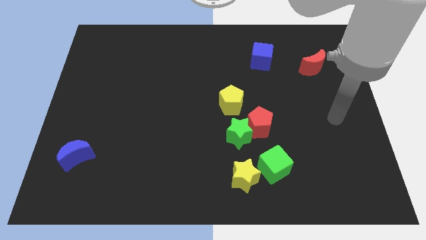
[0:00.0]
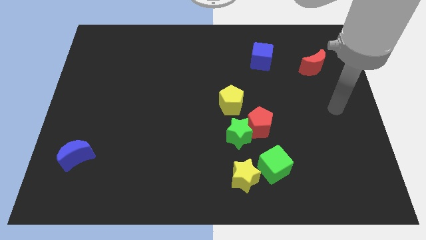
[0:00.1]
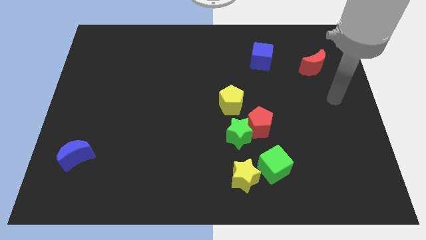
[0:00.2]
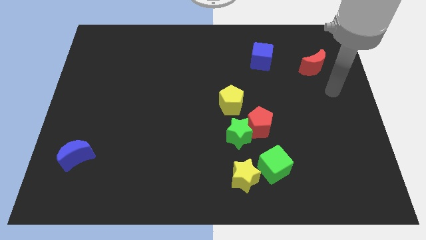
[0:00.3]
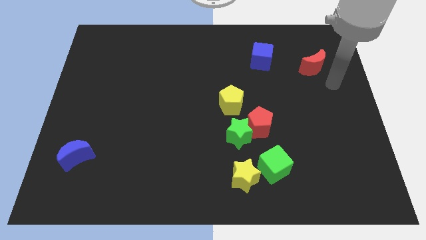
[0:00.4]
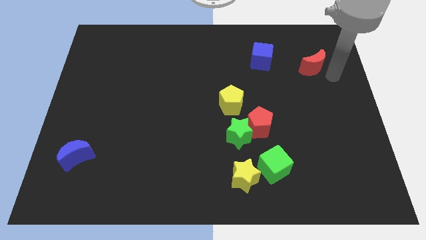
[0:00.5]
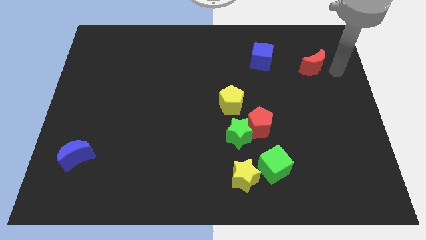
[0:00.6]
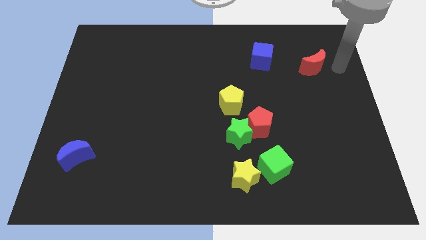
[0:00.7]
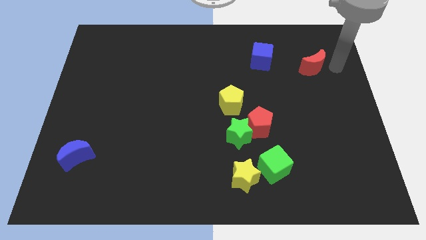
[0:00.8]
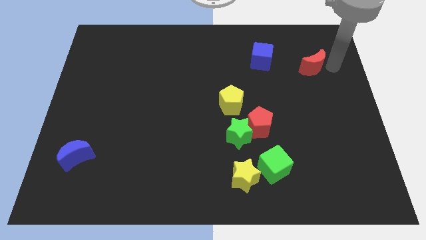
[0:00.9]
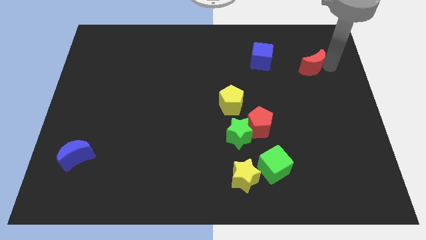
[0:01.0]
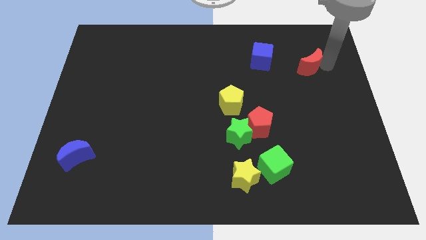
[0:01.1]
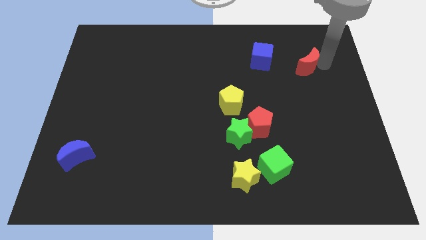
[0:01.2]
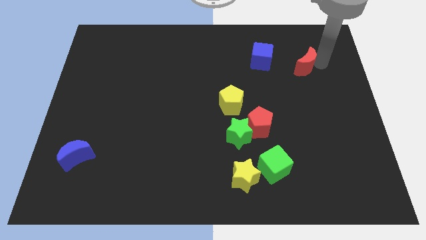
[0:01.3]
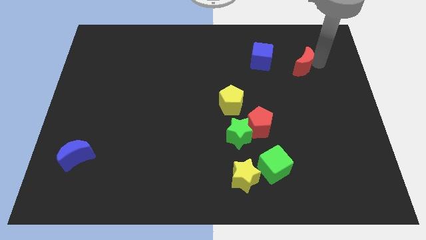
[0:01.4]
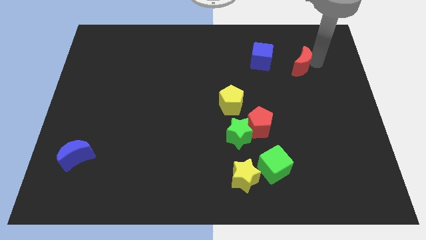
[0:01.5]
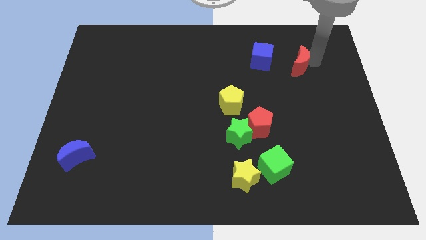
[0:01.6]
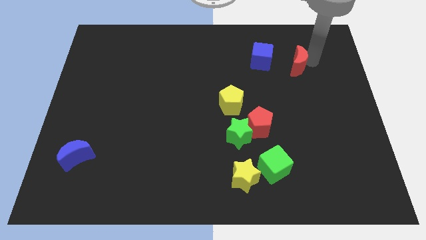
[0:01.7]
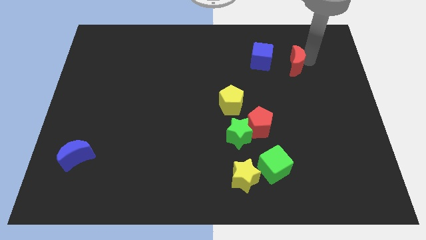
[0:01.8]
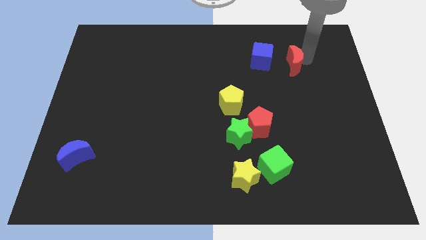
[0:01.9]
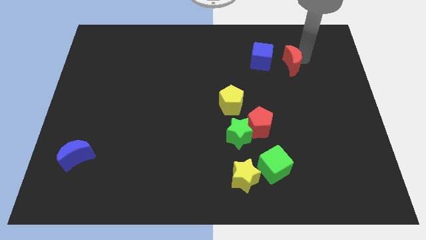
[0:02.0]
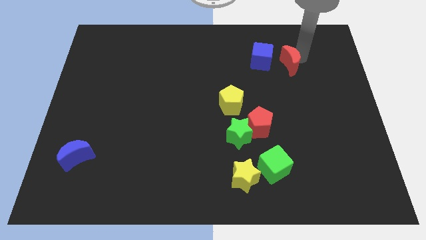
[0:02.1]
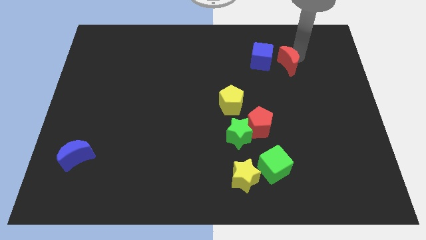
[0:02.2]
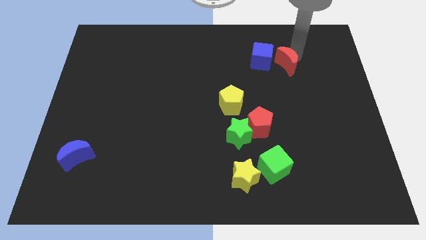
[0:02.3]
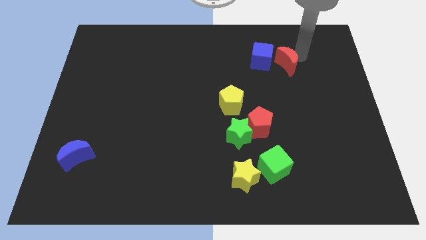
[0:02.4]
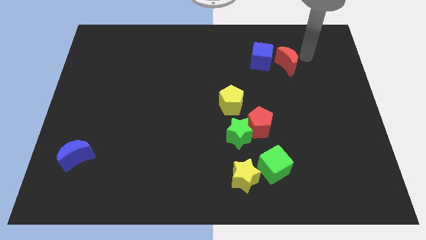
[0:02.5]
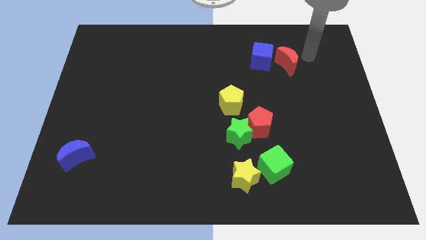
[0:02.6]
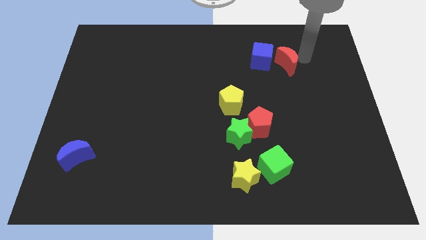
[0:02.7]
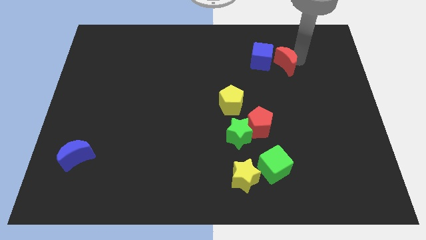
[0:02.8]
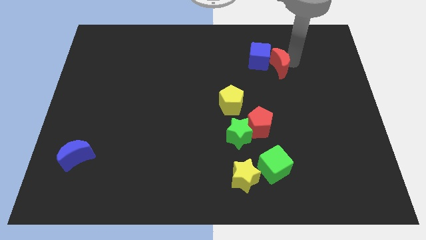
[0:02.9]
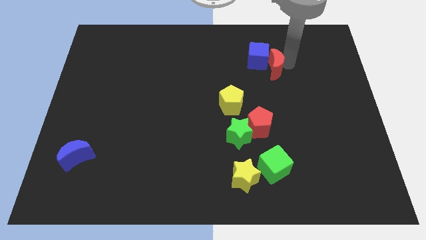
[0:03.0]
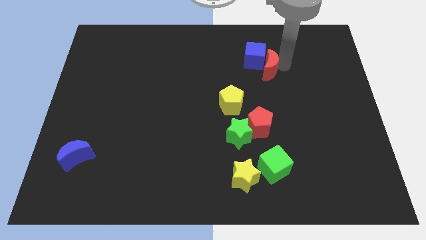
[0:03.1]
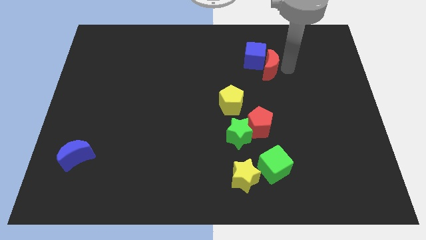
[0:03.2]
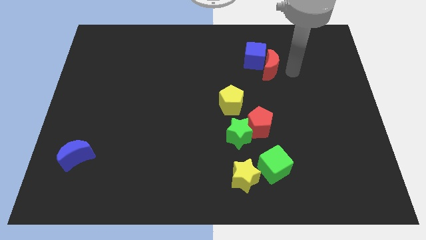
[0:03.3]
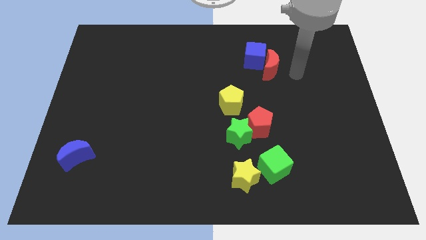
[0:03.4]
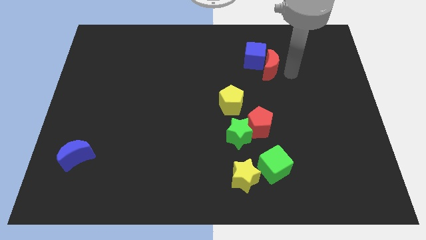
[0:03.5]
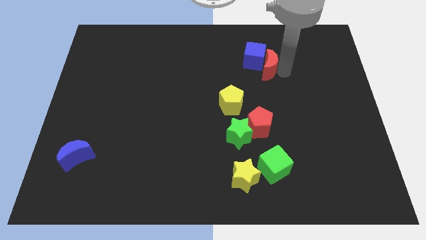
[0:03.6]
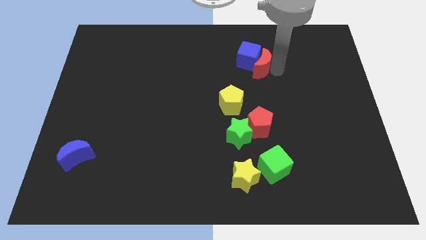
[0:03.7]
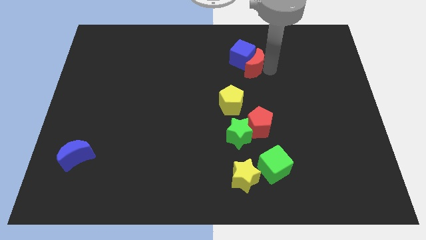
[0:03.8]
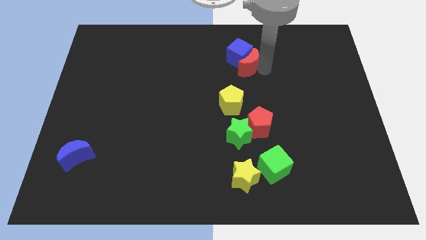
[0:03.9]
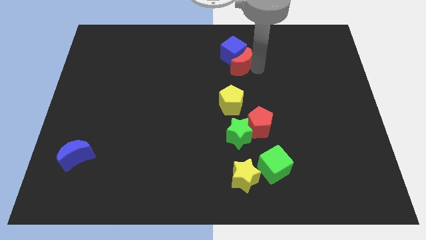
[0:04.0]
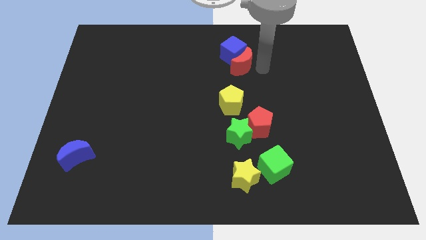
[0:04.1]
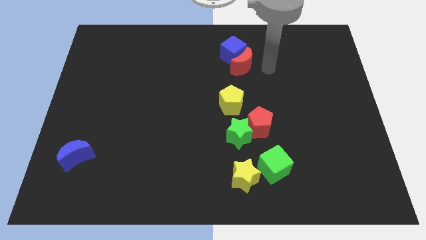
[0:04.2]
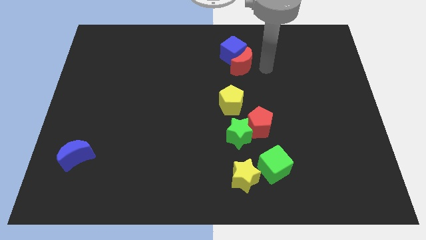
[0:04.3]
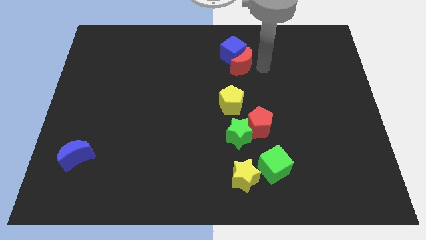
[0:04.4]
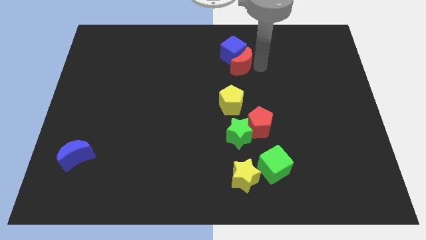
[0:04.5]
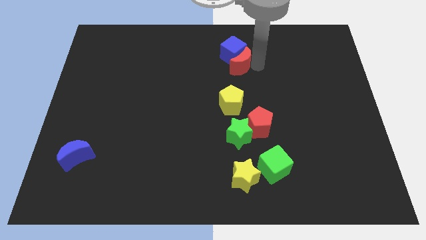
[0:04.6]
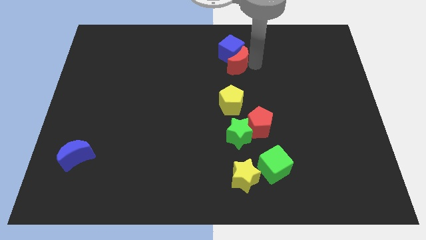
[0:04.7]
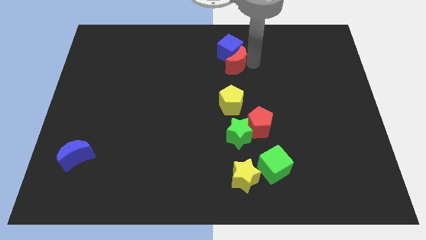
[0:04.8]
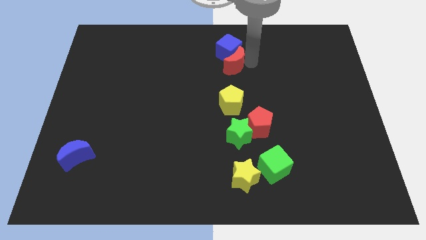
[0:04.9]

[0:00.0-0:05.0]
slide the red moon to the left

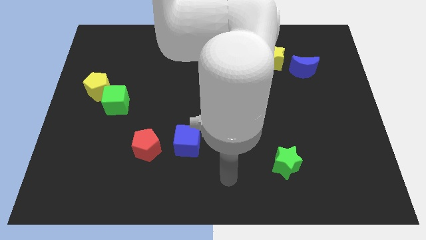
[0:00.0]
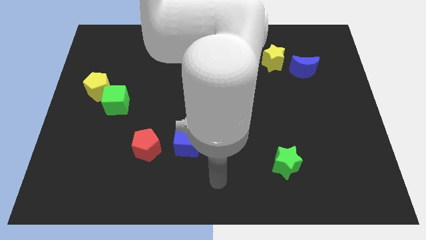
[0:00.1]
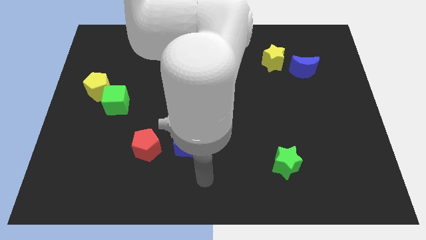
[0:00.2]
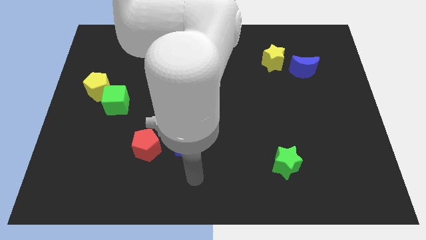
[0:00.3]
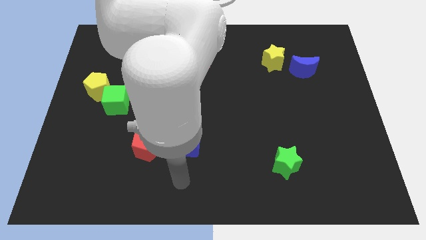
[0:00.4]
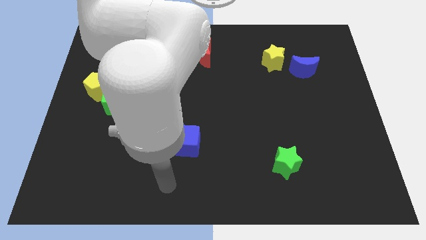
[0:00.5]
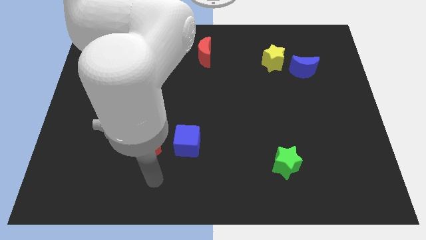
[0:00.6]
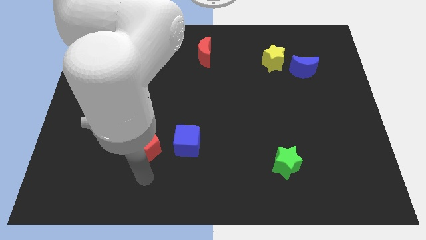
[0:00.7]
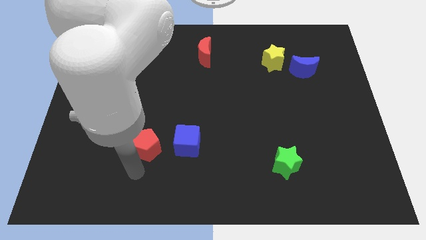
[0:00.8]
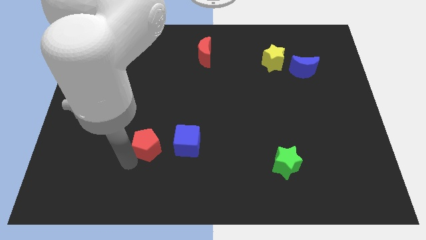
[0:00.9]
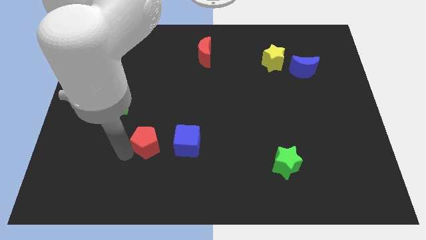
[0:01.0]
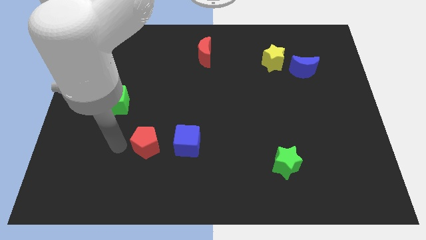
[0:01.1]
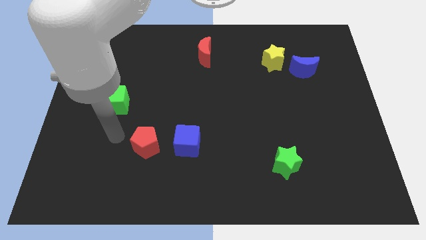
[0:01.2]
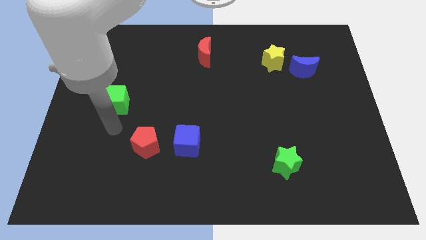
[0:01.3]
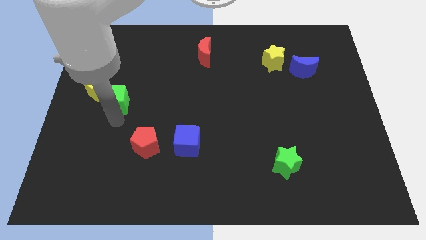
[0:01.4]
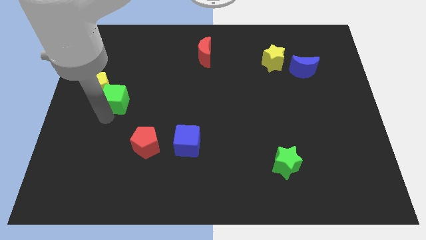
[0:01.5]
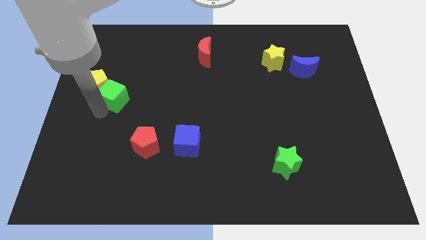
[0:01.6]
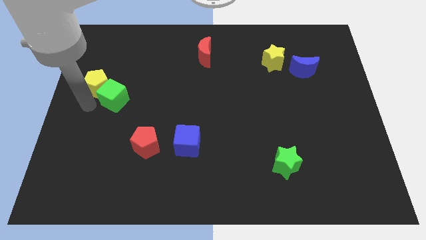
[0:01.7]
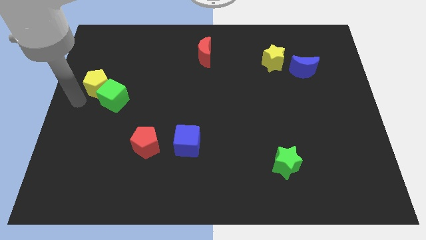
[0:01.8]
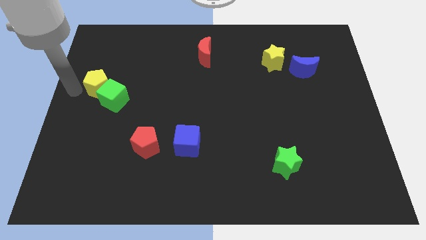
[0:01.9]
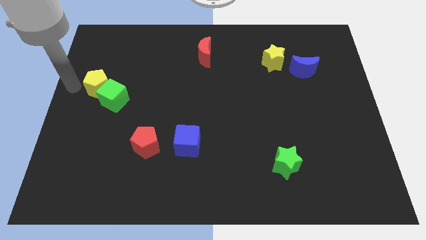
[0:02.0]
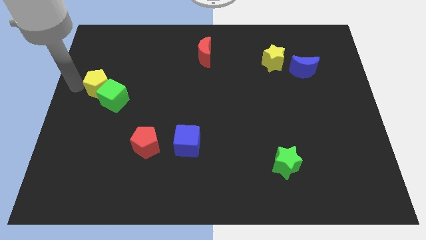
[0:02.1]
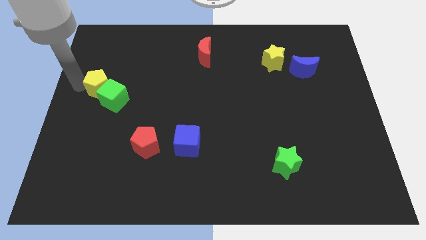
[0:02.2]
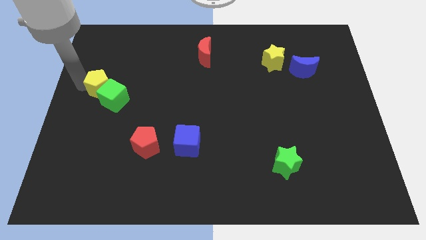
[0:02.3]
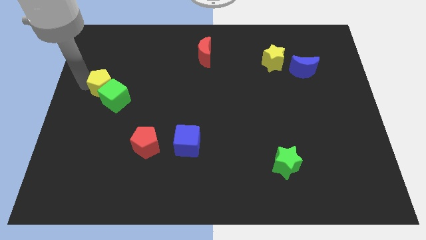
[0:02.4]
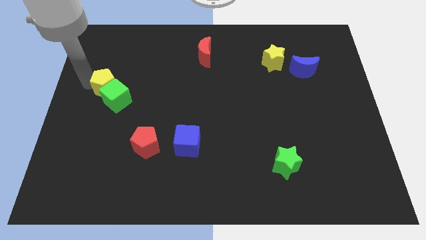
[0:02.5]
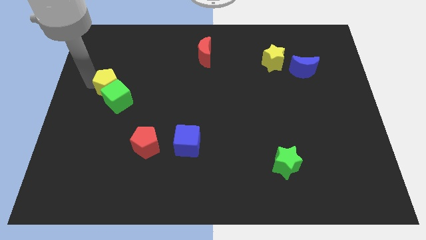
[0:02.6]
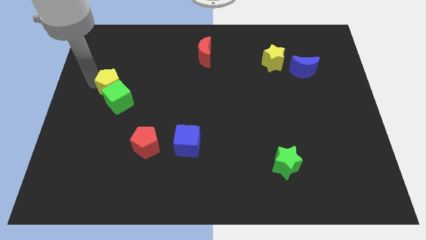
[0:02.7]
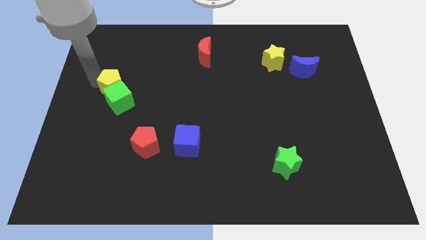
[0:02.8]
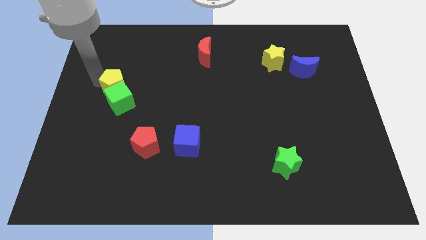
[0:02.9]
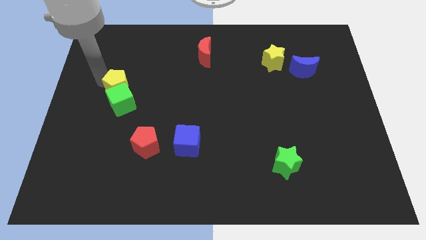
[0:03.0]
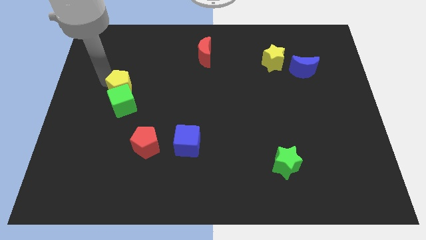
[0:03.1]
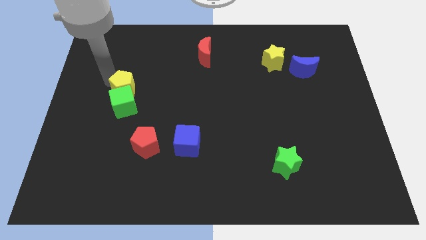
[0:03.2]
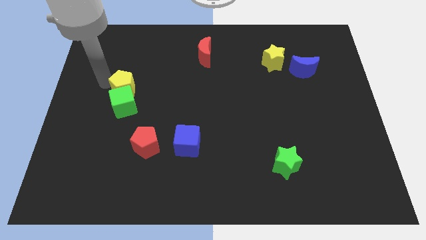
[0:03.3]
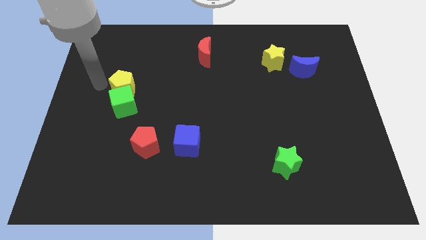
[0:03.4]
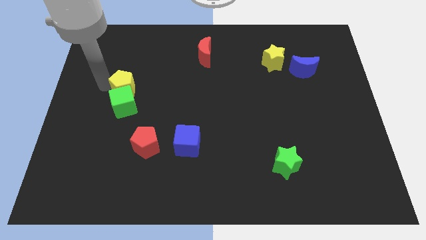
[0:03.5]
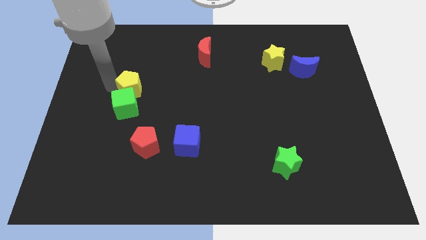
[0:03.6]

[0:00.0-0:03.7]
push the yellow pentagon to the right somewhat
